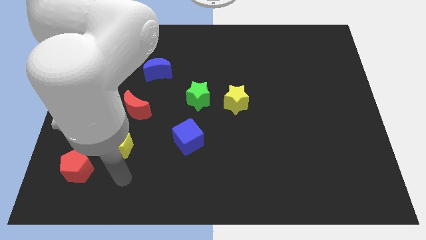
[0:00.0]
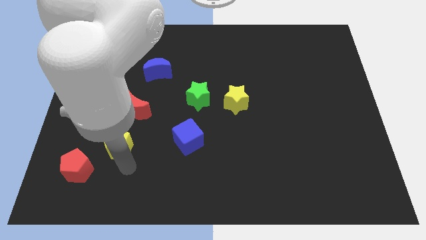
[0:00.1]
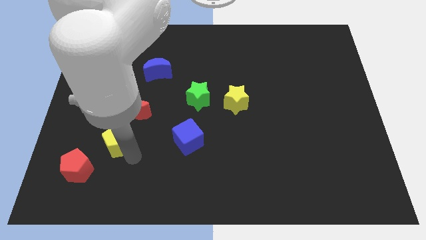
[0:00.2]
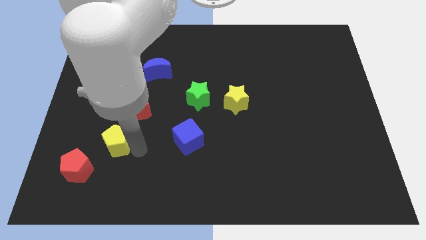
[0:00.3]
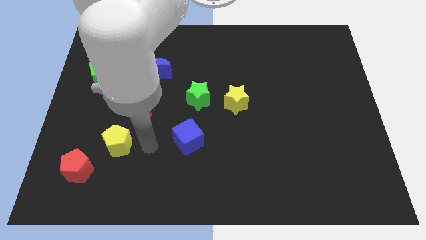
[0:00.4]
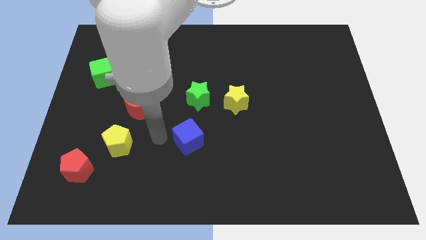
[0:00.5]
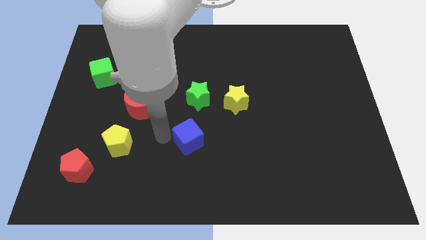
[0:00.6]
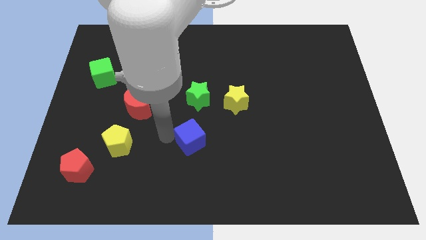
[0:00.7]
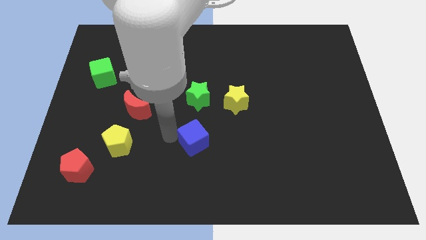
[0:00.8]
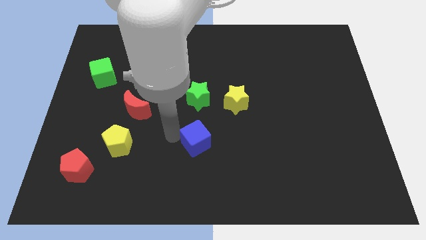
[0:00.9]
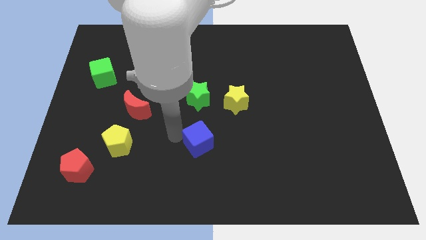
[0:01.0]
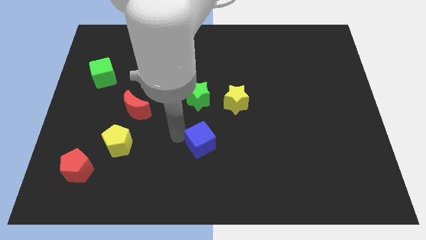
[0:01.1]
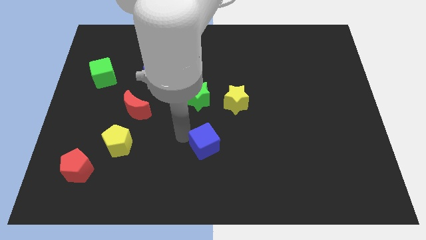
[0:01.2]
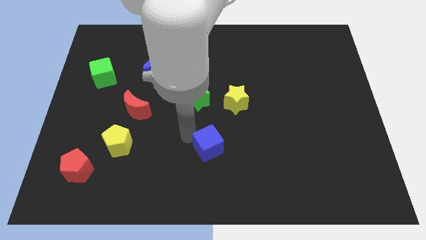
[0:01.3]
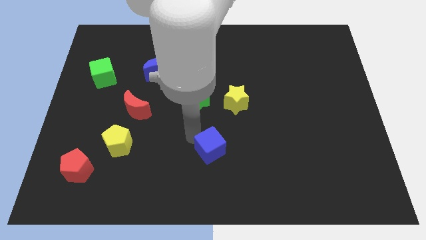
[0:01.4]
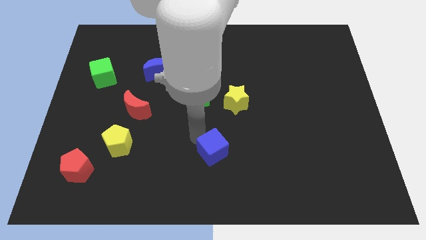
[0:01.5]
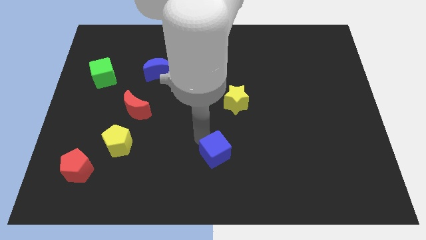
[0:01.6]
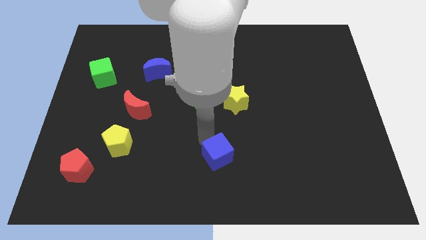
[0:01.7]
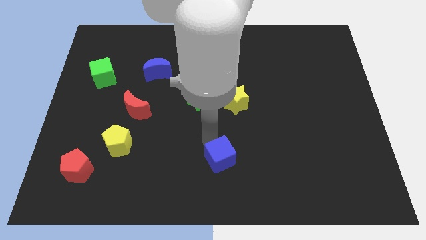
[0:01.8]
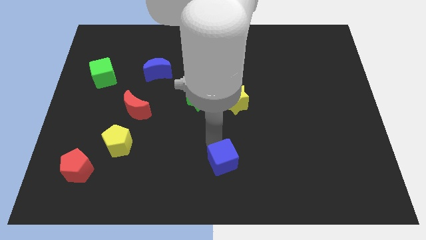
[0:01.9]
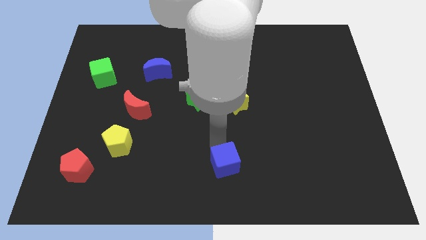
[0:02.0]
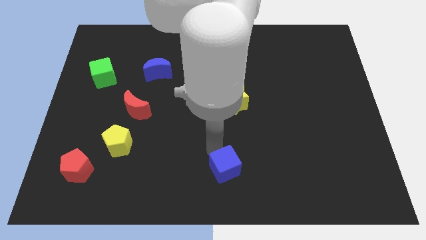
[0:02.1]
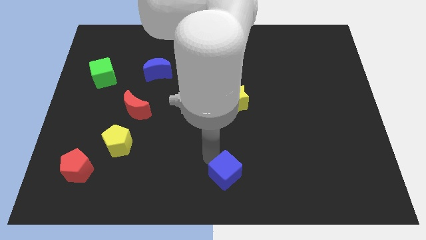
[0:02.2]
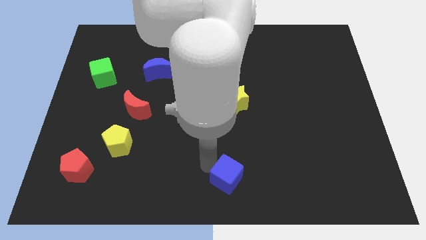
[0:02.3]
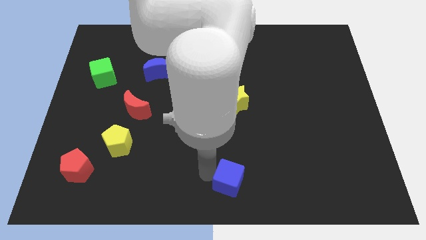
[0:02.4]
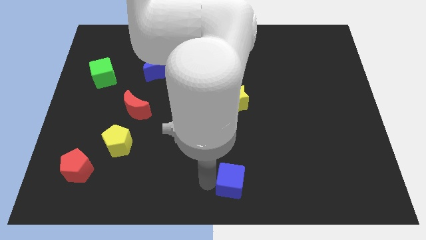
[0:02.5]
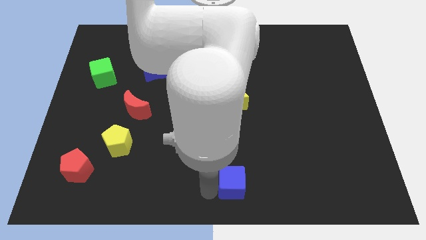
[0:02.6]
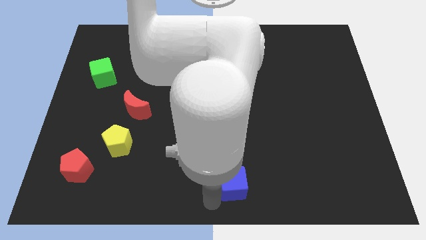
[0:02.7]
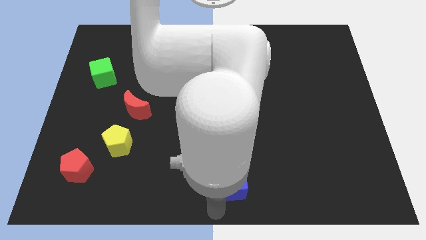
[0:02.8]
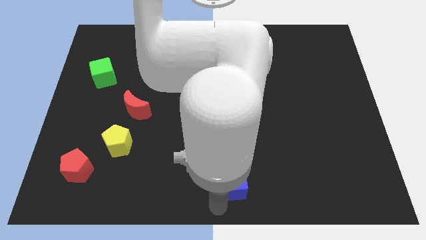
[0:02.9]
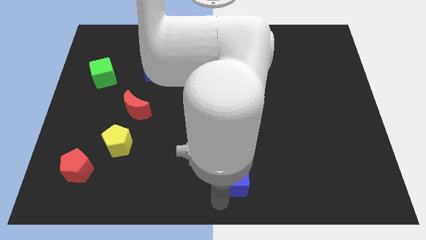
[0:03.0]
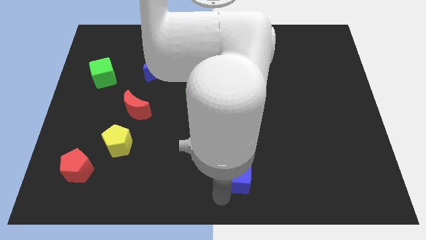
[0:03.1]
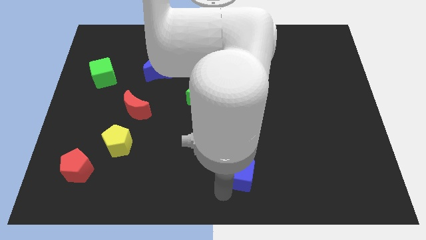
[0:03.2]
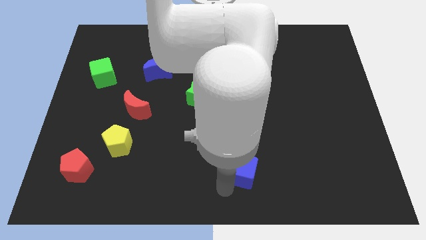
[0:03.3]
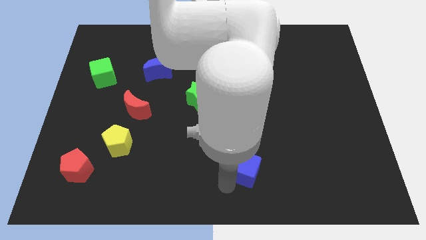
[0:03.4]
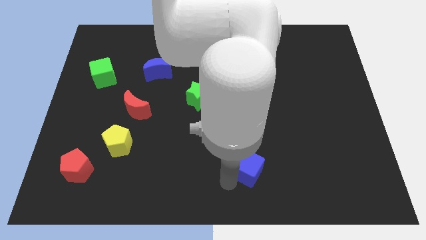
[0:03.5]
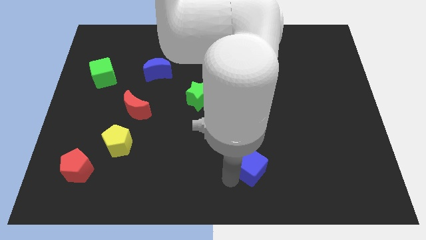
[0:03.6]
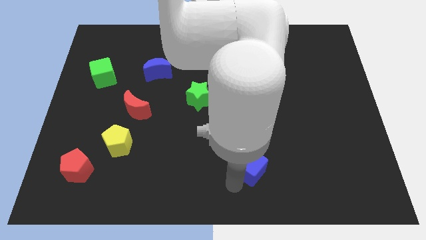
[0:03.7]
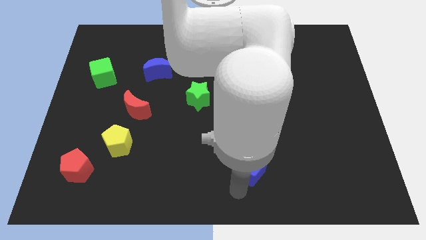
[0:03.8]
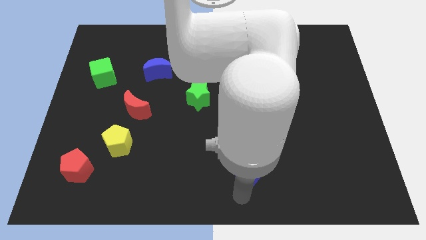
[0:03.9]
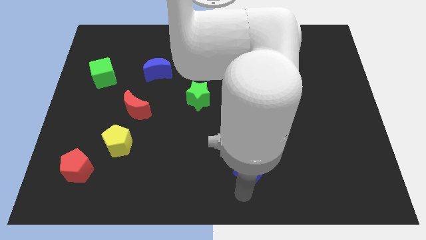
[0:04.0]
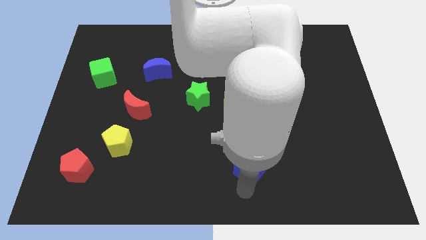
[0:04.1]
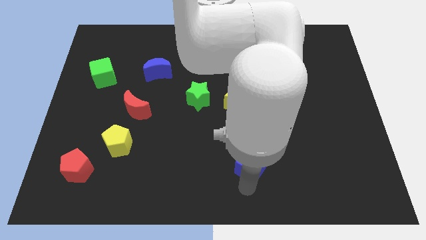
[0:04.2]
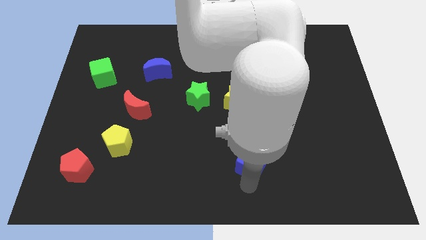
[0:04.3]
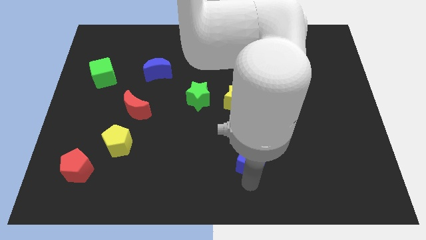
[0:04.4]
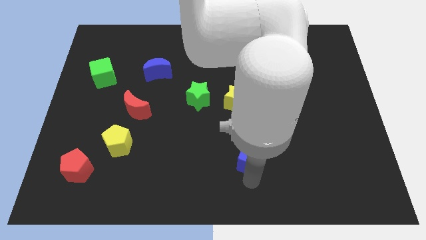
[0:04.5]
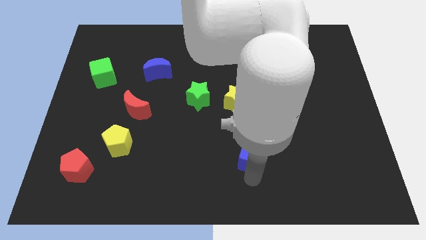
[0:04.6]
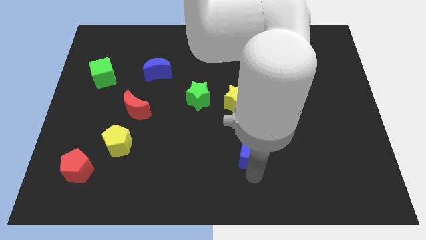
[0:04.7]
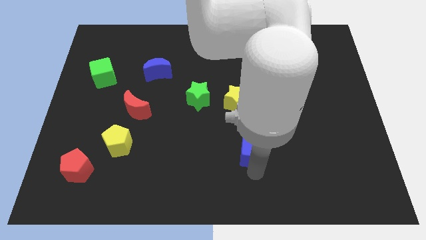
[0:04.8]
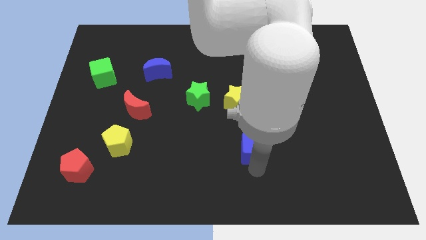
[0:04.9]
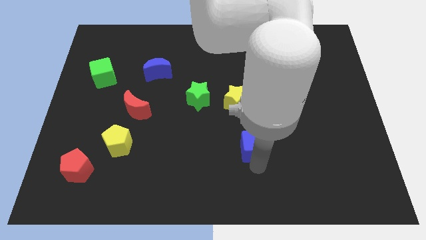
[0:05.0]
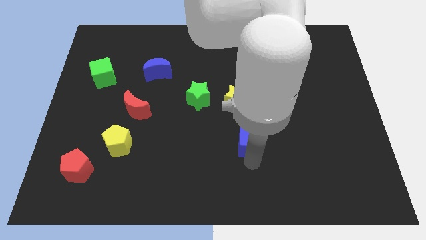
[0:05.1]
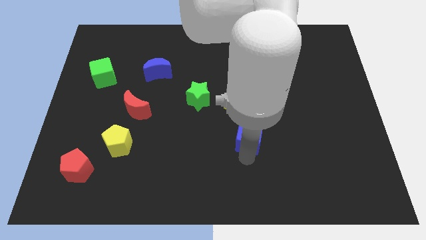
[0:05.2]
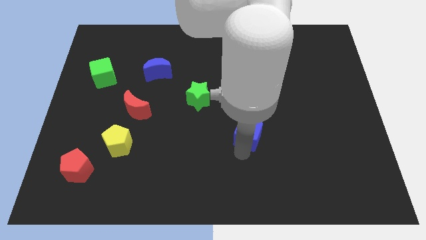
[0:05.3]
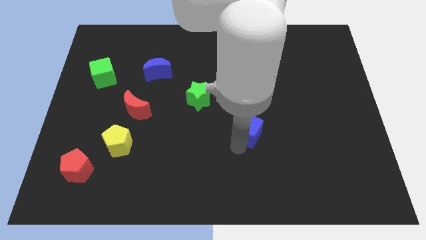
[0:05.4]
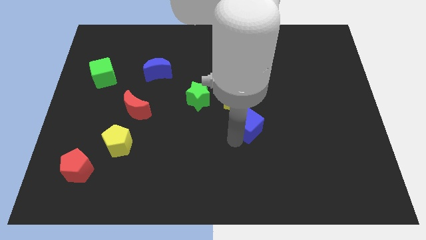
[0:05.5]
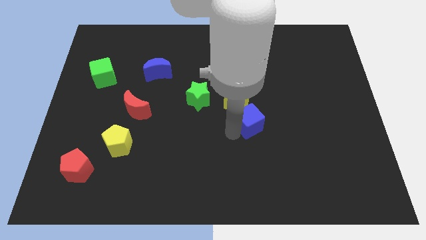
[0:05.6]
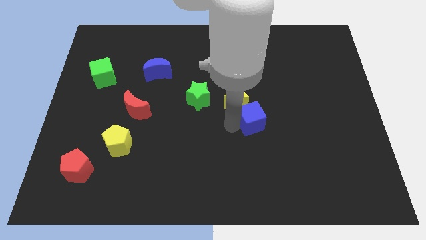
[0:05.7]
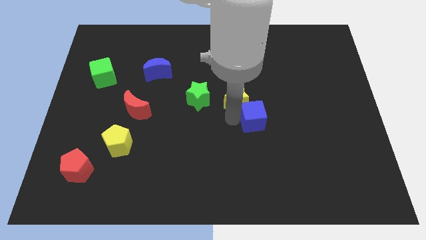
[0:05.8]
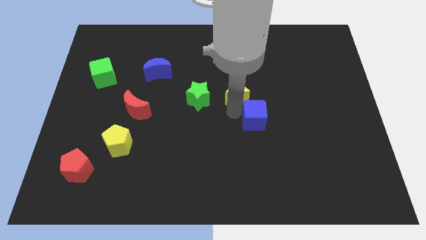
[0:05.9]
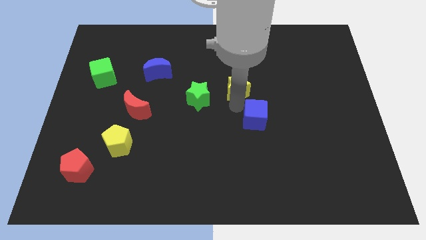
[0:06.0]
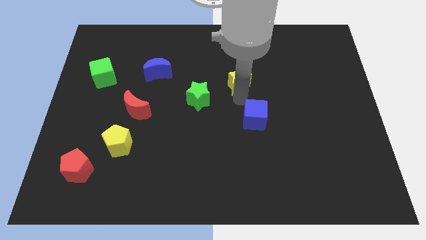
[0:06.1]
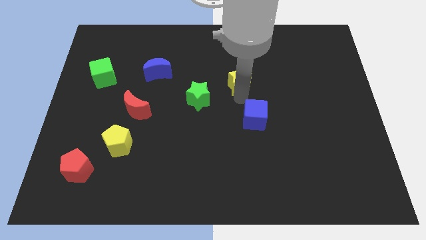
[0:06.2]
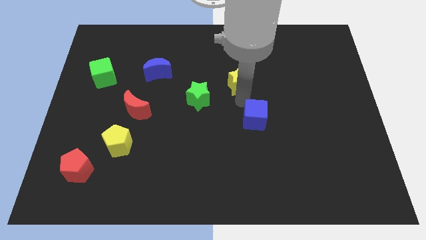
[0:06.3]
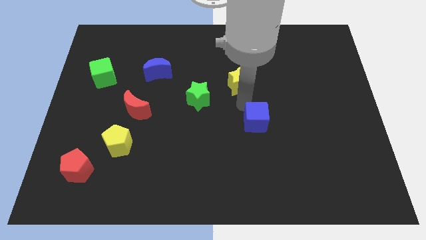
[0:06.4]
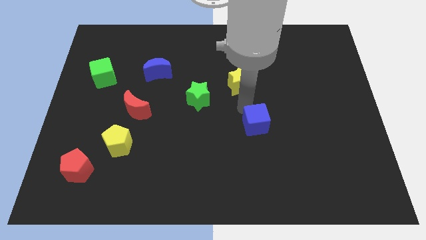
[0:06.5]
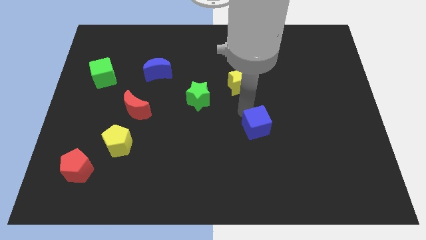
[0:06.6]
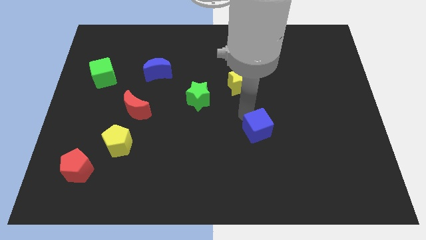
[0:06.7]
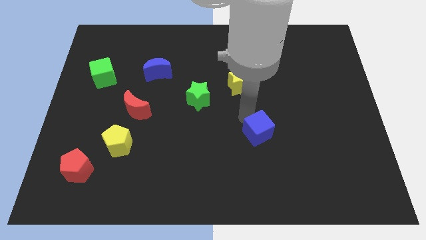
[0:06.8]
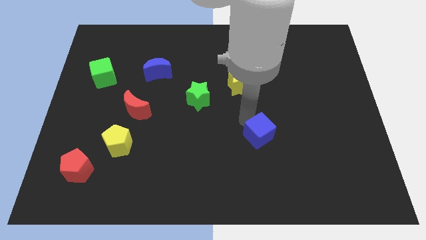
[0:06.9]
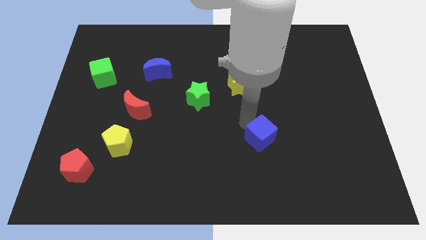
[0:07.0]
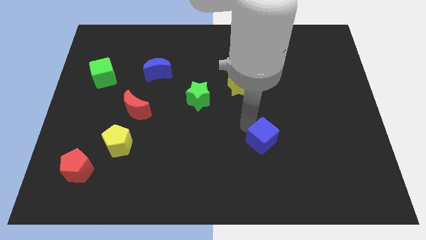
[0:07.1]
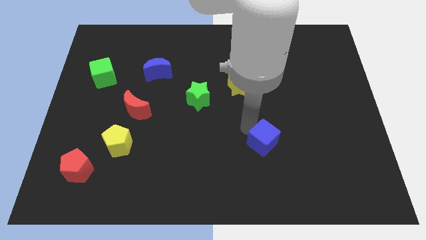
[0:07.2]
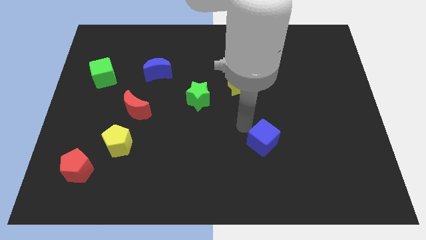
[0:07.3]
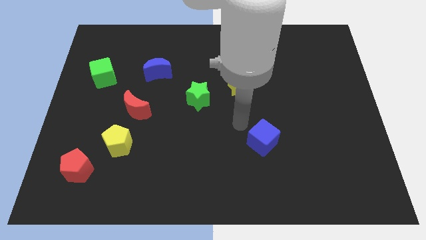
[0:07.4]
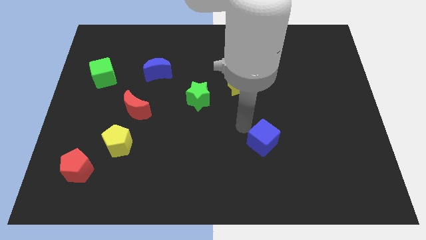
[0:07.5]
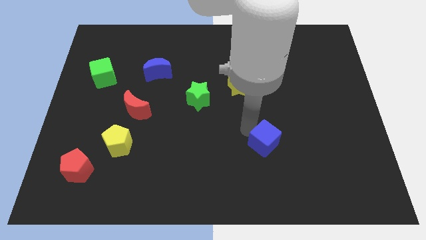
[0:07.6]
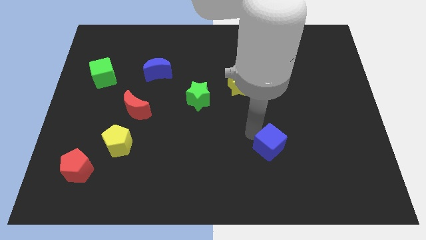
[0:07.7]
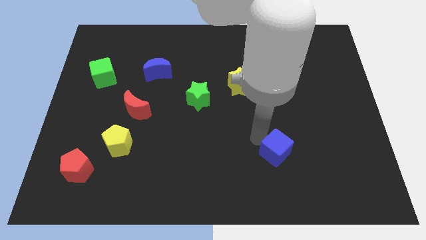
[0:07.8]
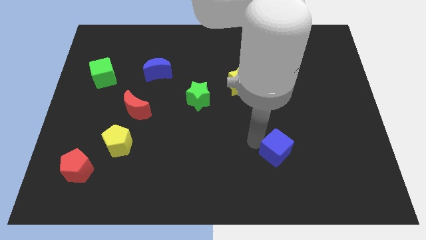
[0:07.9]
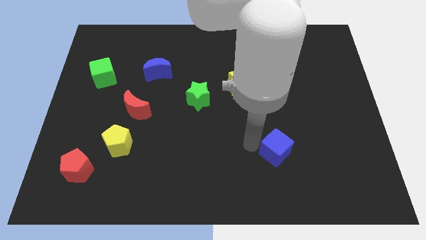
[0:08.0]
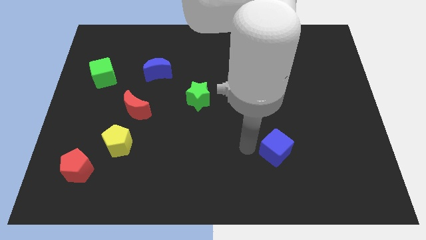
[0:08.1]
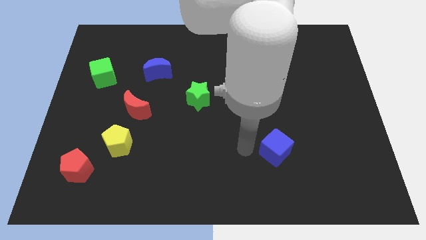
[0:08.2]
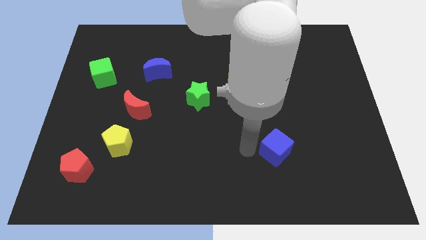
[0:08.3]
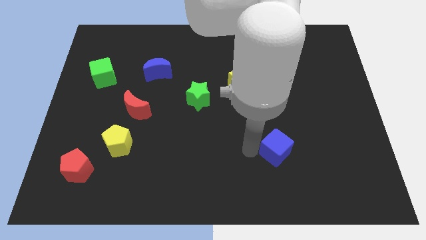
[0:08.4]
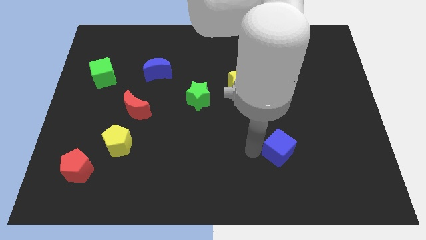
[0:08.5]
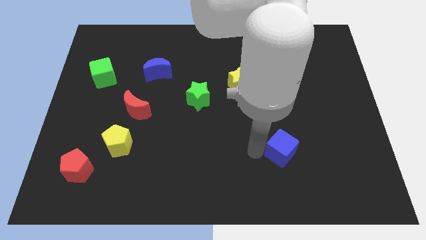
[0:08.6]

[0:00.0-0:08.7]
push the blue cube to the right
